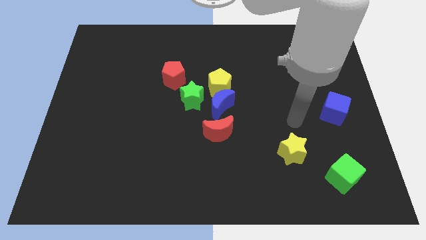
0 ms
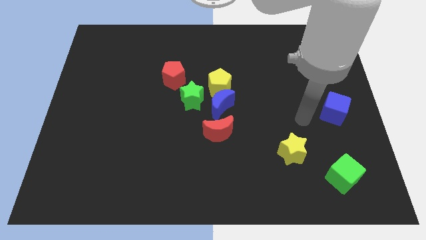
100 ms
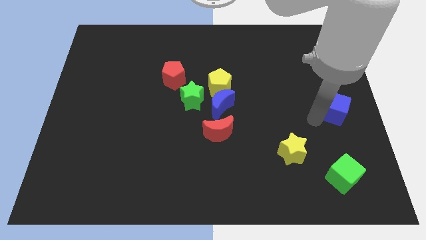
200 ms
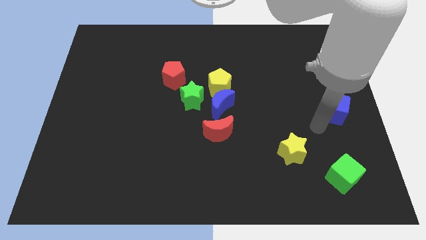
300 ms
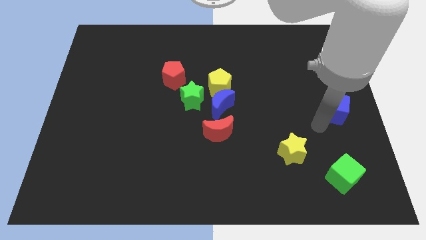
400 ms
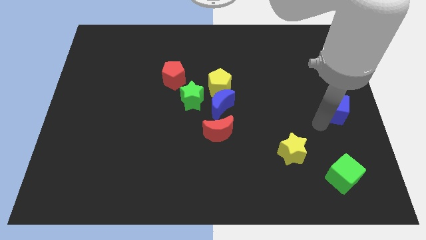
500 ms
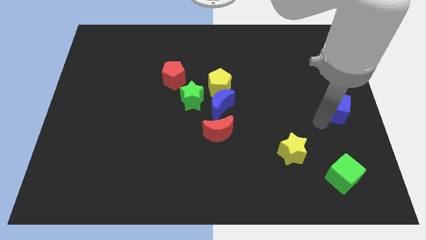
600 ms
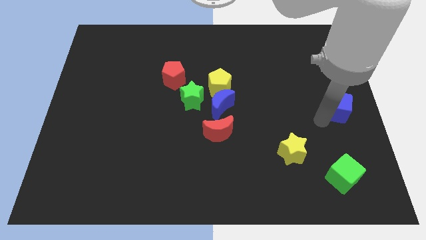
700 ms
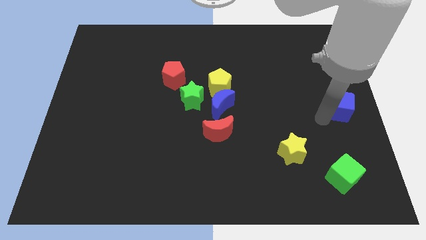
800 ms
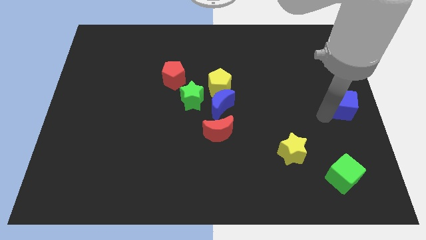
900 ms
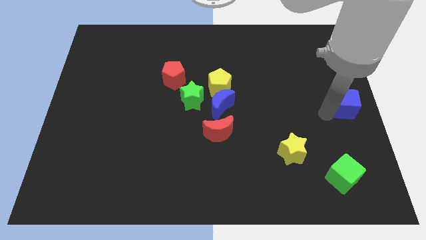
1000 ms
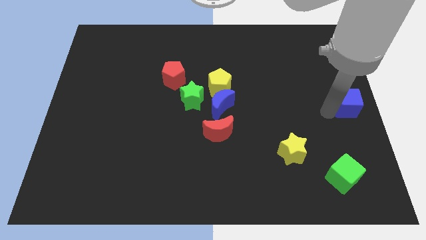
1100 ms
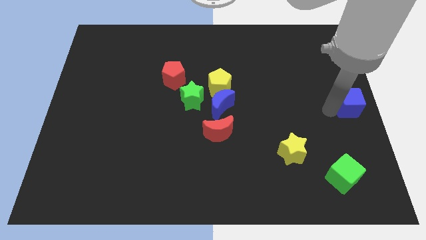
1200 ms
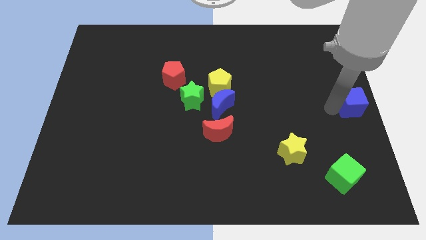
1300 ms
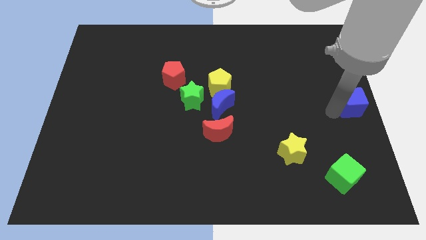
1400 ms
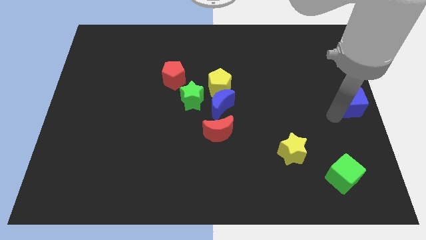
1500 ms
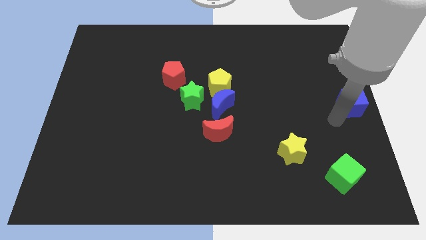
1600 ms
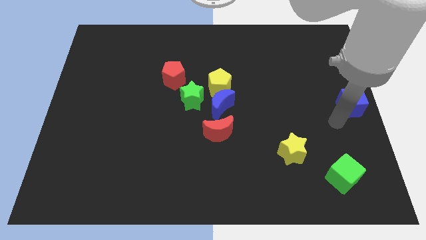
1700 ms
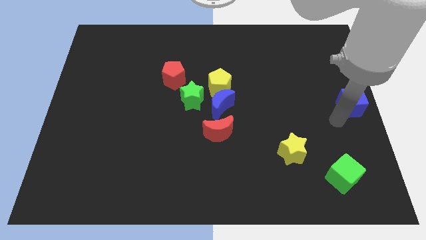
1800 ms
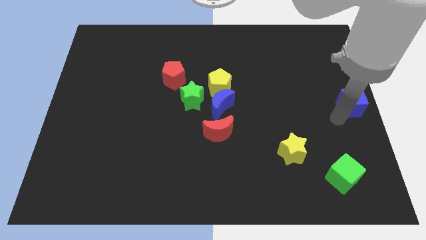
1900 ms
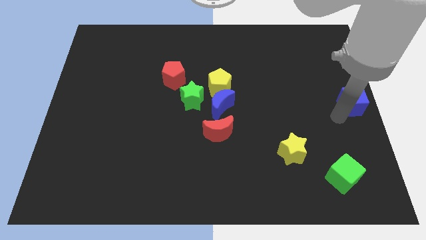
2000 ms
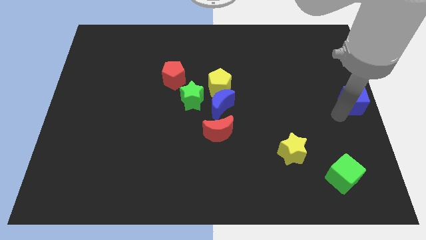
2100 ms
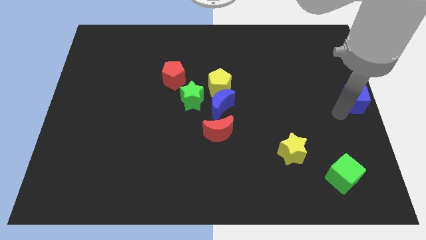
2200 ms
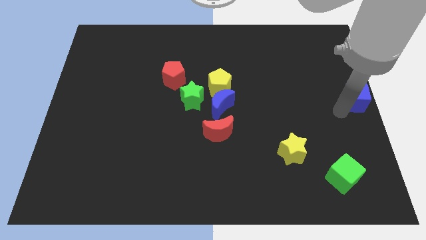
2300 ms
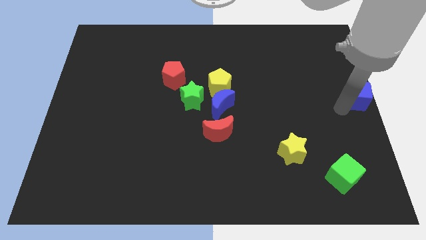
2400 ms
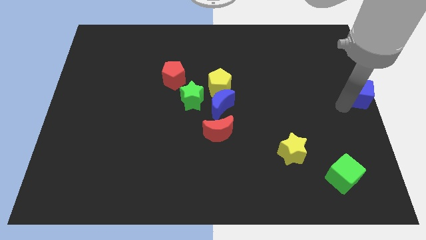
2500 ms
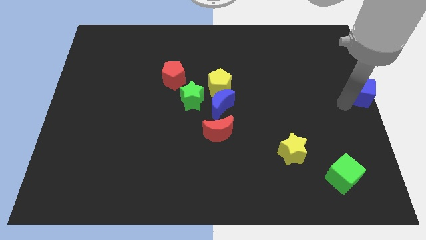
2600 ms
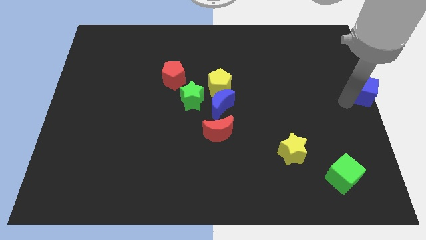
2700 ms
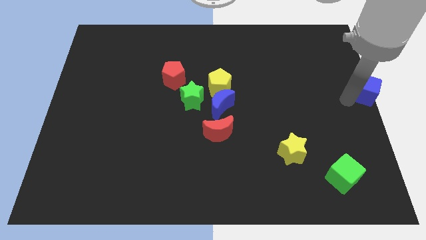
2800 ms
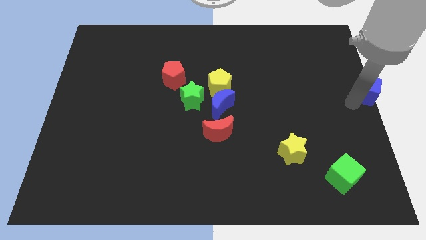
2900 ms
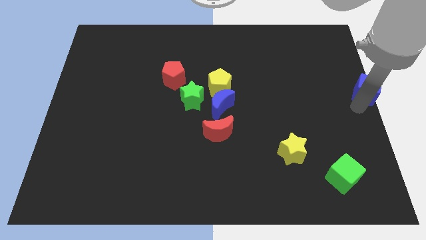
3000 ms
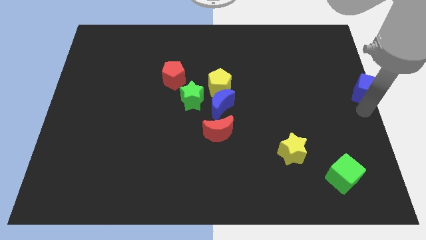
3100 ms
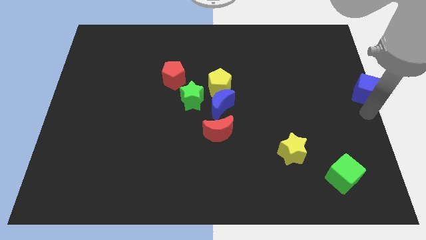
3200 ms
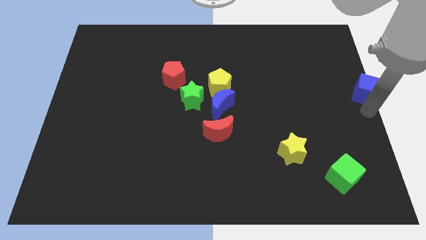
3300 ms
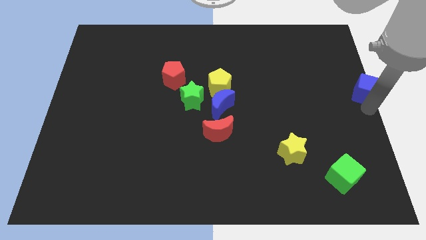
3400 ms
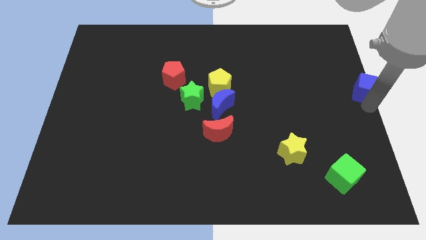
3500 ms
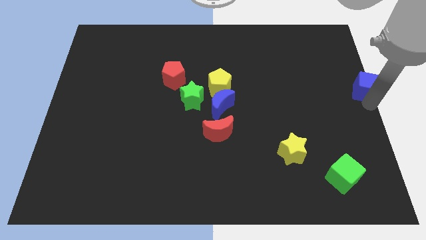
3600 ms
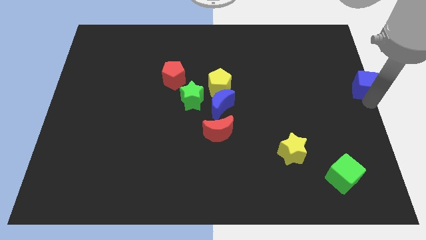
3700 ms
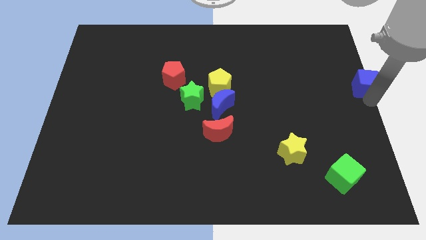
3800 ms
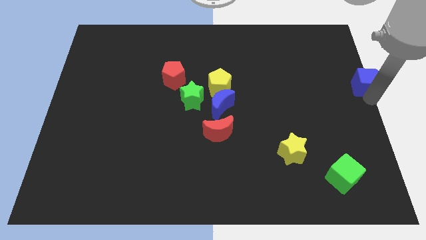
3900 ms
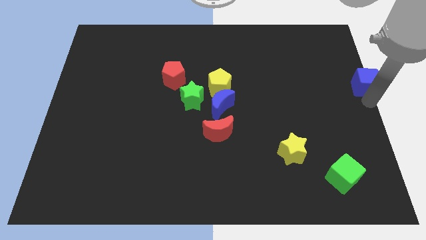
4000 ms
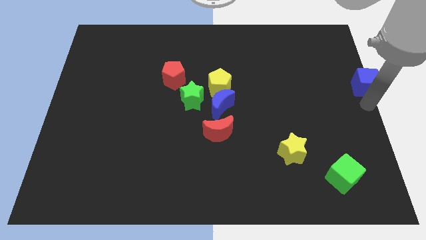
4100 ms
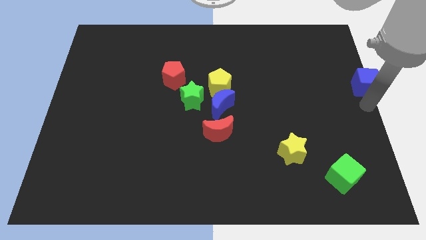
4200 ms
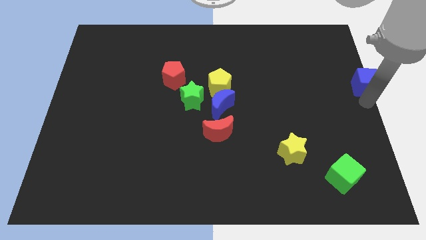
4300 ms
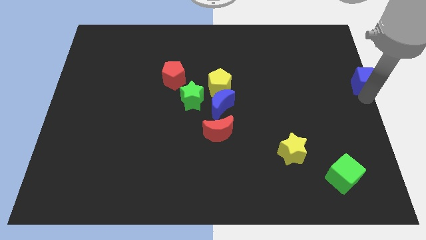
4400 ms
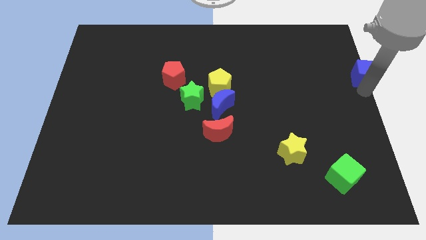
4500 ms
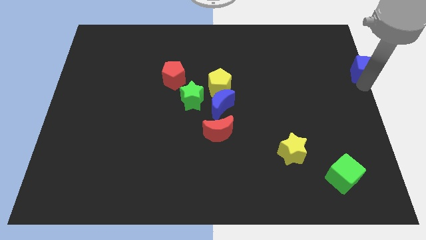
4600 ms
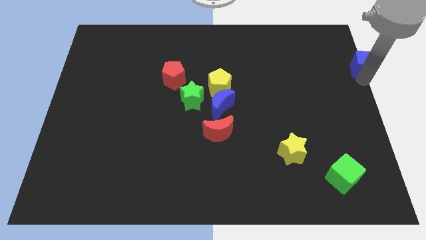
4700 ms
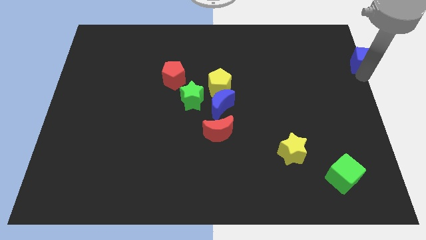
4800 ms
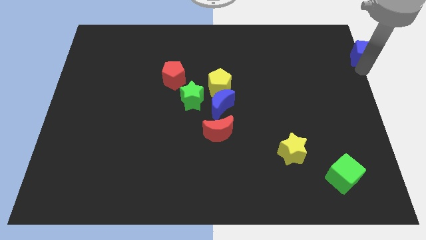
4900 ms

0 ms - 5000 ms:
slide the blue cube to the top right corner
